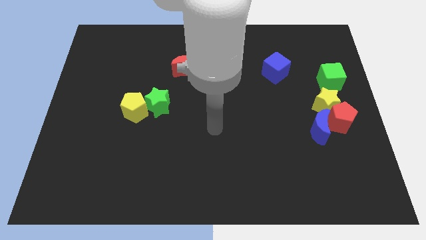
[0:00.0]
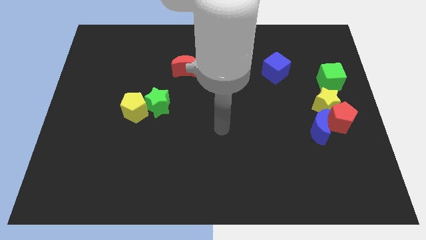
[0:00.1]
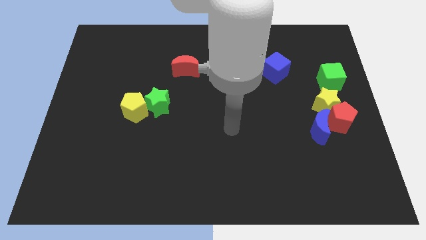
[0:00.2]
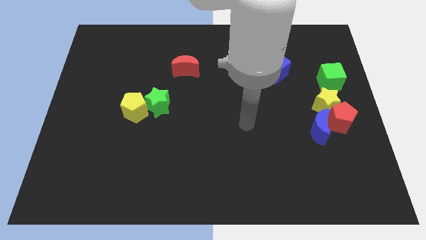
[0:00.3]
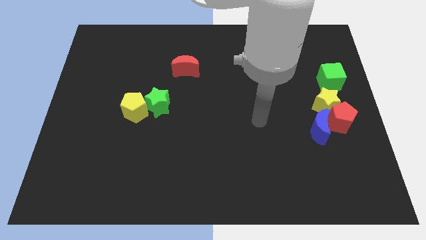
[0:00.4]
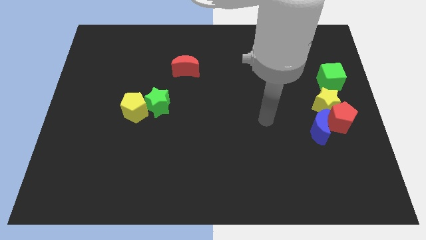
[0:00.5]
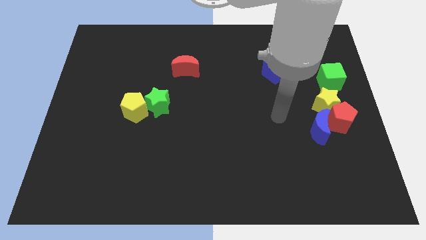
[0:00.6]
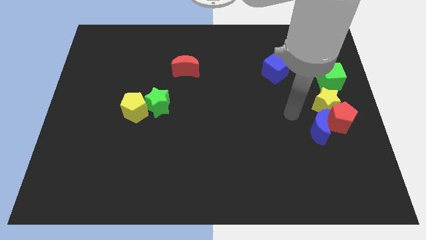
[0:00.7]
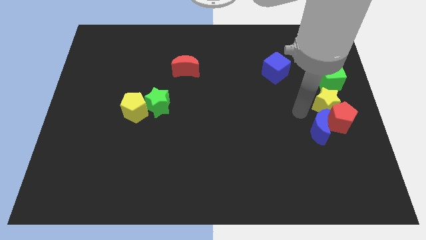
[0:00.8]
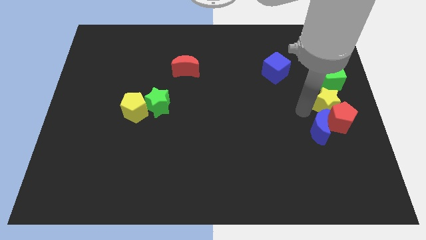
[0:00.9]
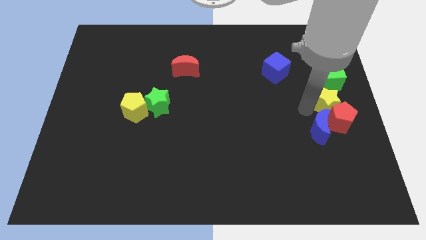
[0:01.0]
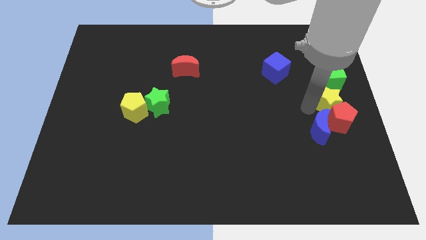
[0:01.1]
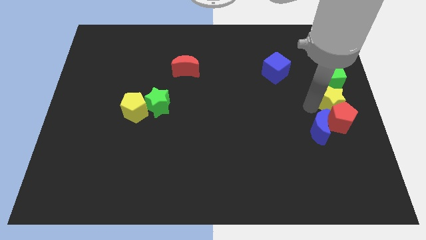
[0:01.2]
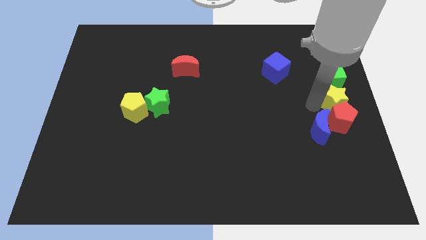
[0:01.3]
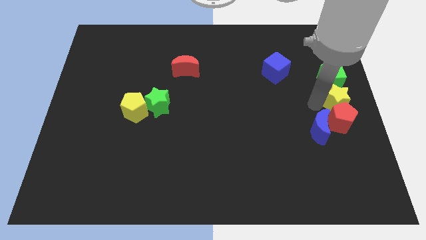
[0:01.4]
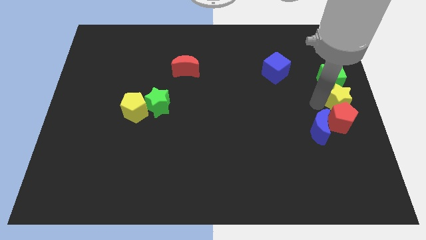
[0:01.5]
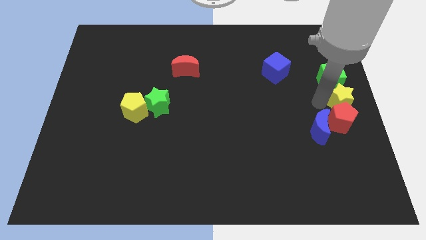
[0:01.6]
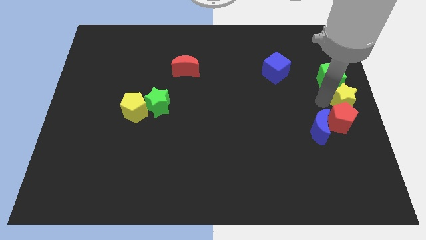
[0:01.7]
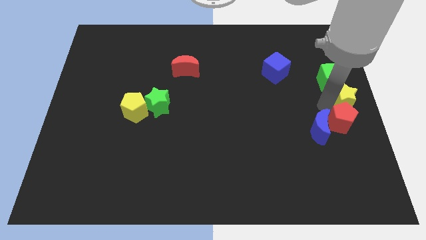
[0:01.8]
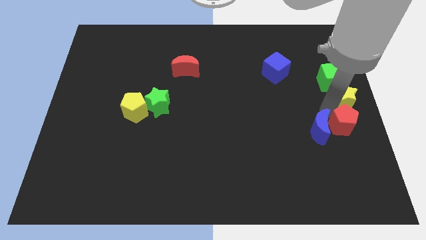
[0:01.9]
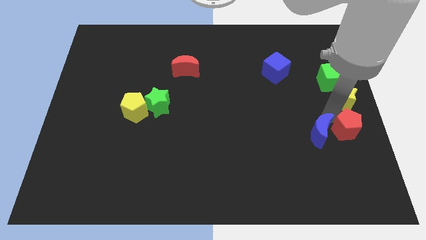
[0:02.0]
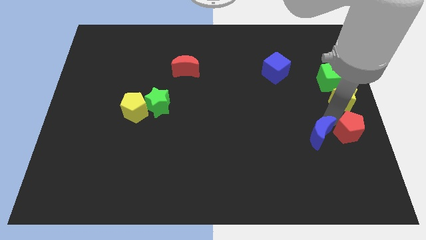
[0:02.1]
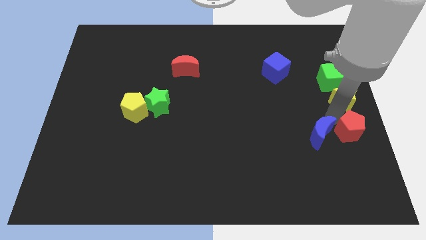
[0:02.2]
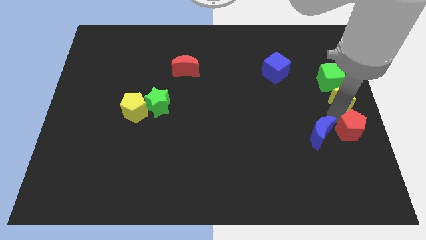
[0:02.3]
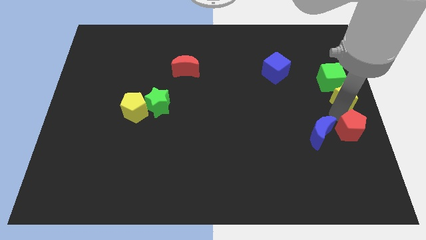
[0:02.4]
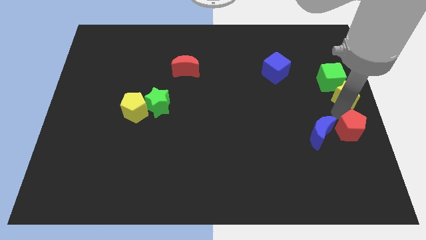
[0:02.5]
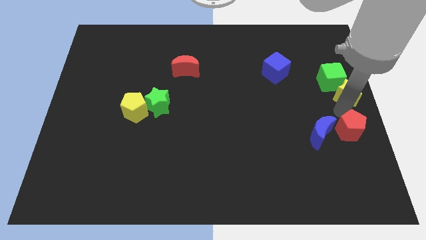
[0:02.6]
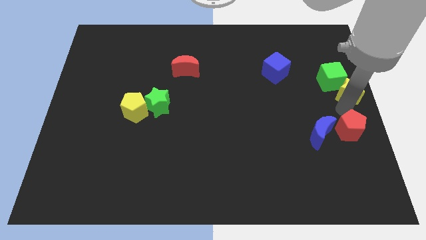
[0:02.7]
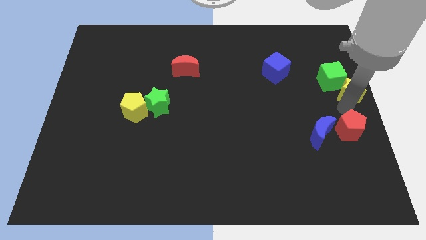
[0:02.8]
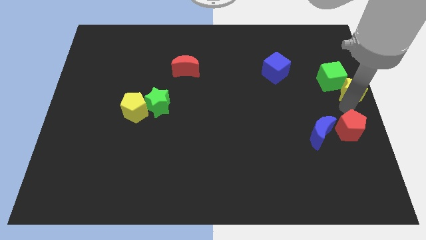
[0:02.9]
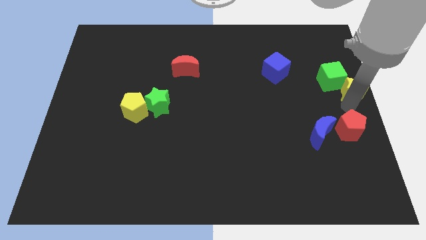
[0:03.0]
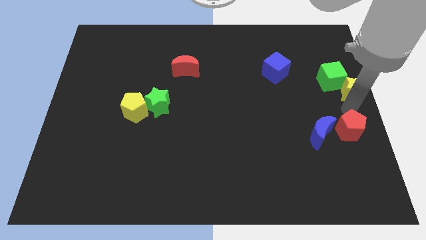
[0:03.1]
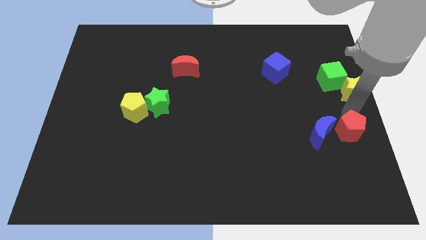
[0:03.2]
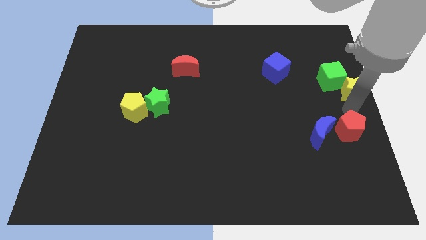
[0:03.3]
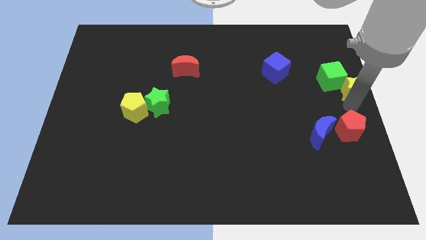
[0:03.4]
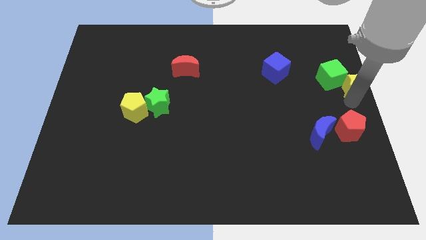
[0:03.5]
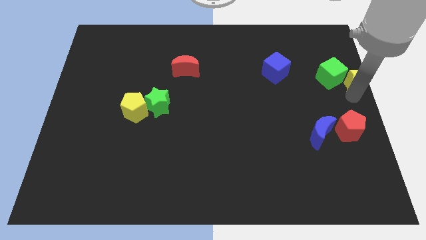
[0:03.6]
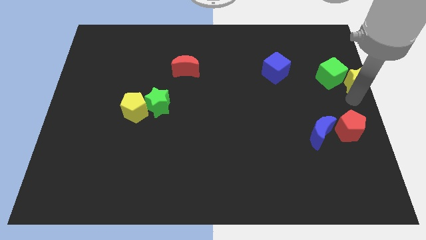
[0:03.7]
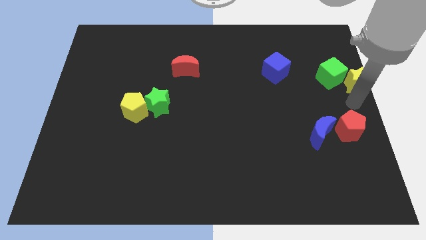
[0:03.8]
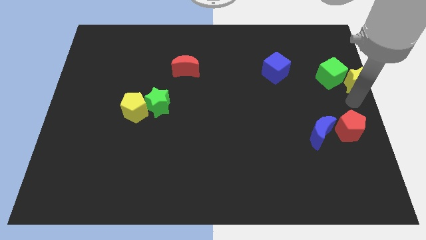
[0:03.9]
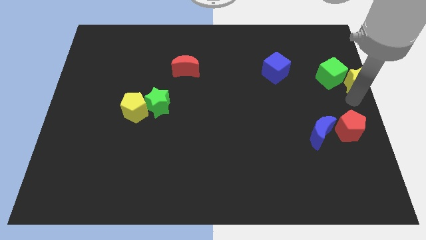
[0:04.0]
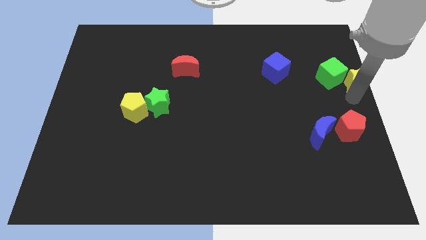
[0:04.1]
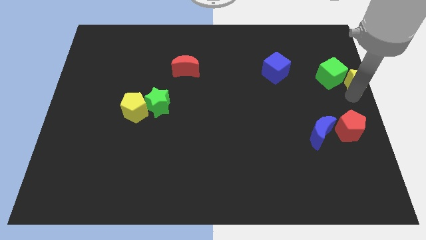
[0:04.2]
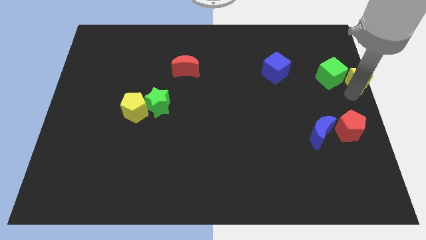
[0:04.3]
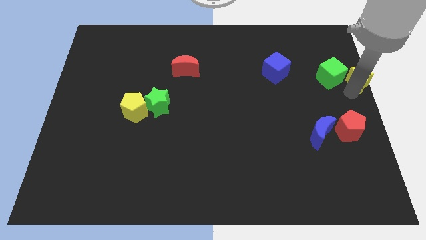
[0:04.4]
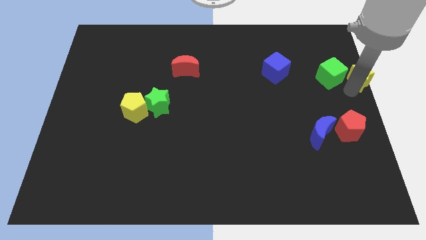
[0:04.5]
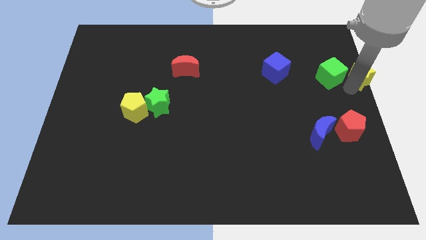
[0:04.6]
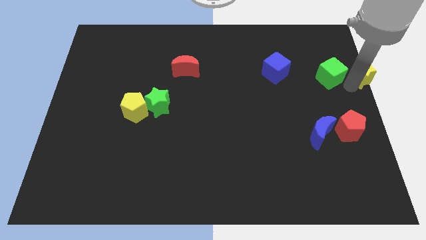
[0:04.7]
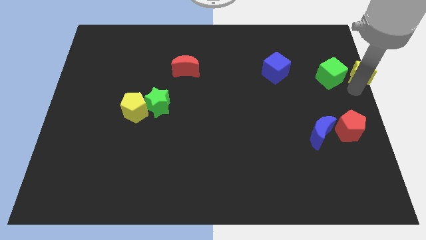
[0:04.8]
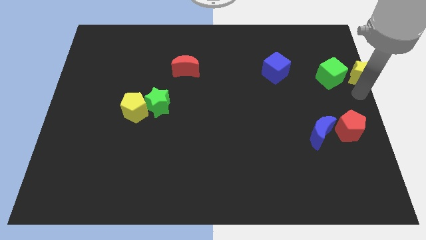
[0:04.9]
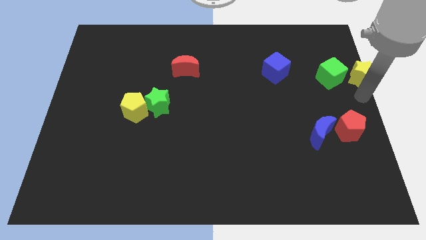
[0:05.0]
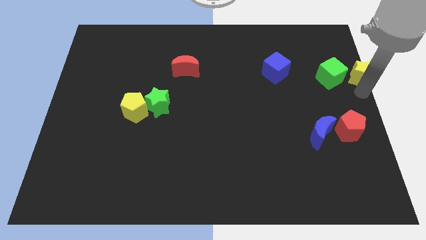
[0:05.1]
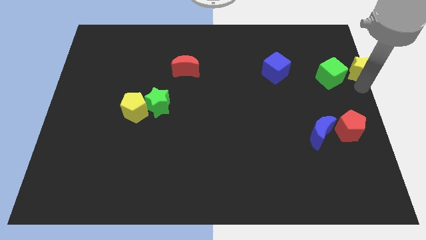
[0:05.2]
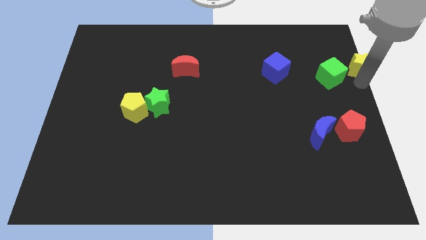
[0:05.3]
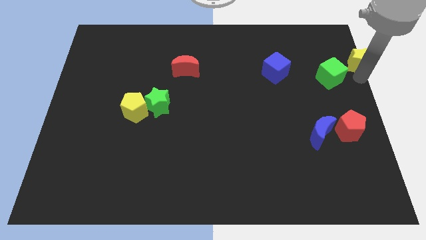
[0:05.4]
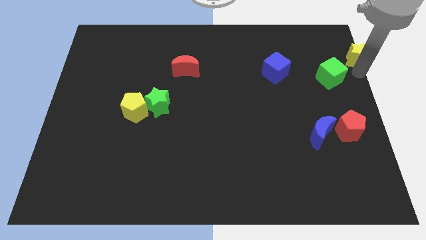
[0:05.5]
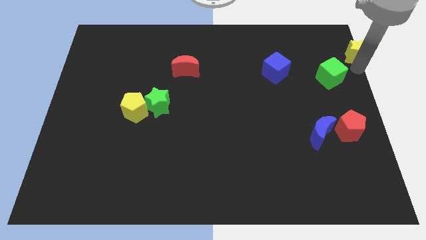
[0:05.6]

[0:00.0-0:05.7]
move the yellow star to the top right
